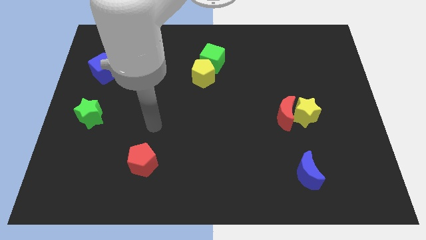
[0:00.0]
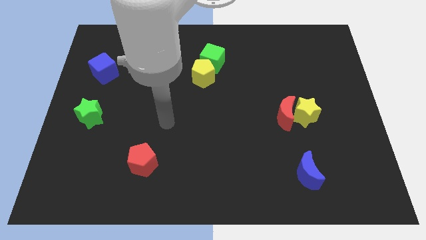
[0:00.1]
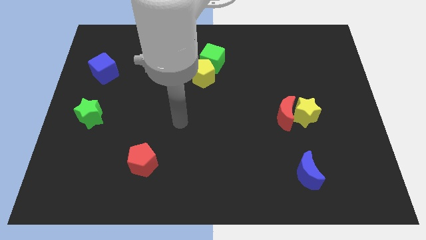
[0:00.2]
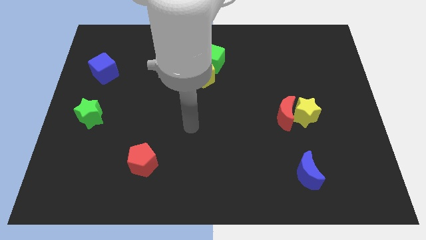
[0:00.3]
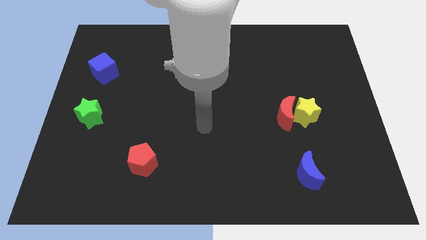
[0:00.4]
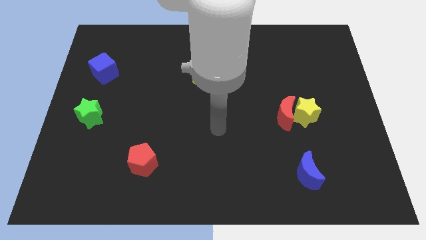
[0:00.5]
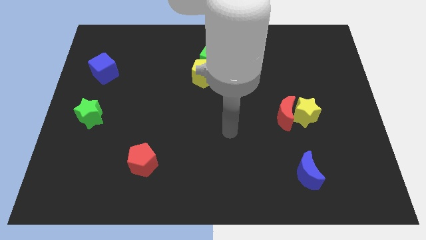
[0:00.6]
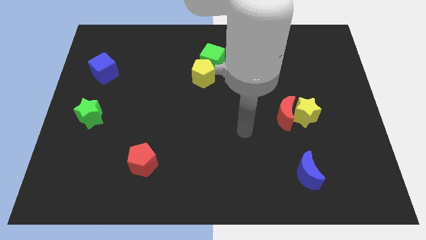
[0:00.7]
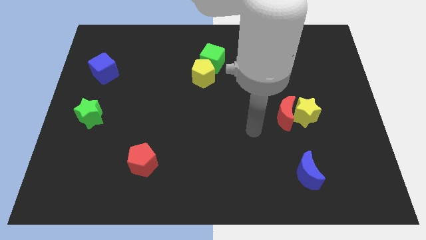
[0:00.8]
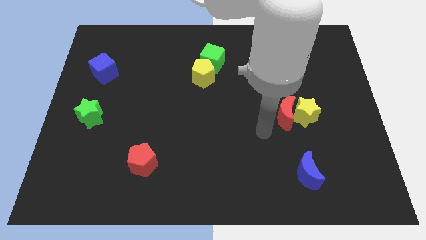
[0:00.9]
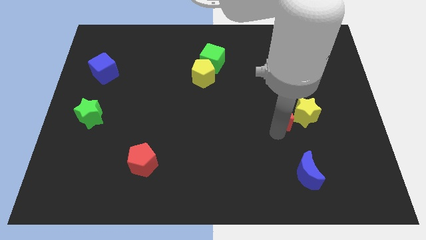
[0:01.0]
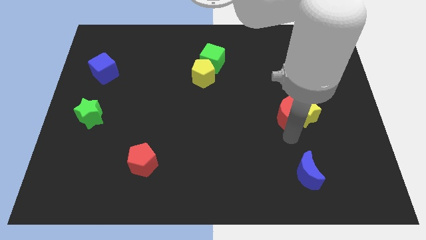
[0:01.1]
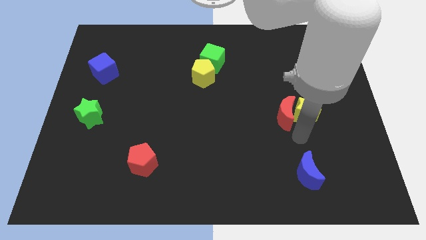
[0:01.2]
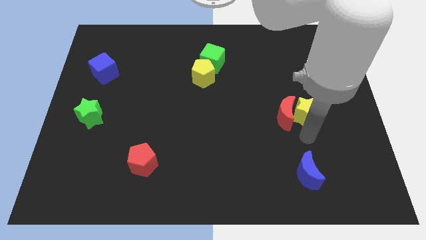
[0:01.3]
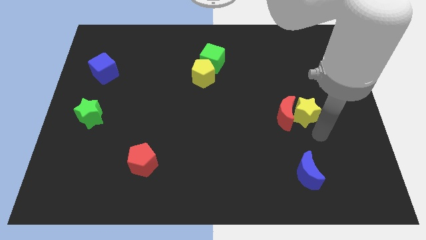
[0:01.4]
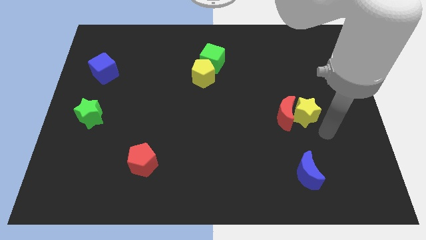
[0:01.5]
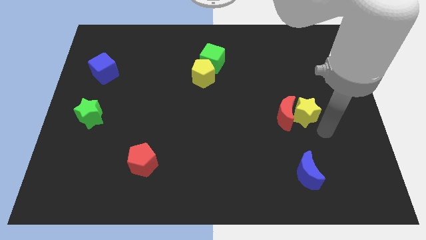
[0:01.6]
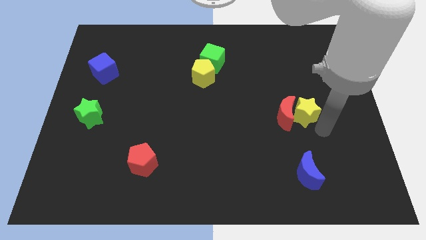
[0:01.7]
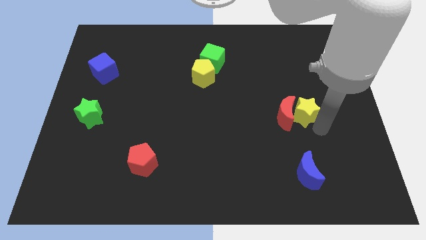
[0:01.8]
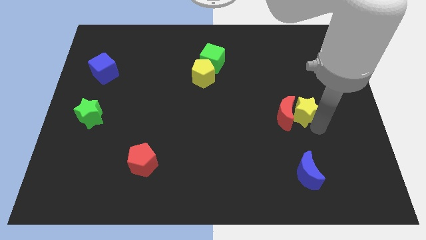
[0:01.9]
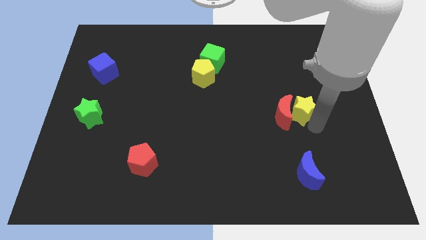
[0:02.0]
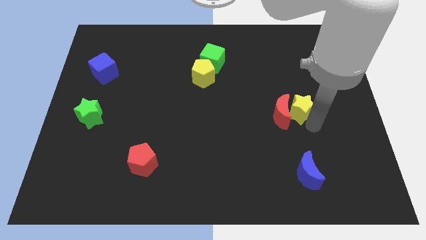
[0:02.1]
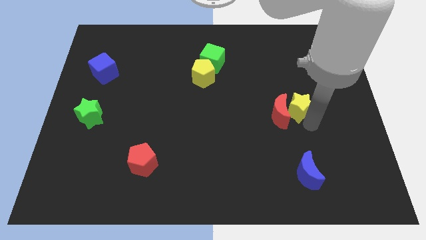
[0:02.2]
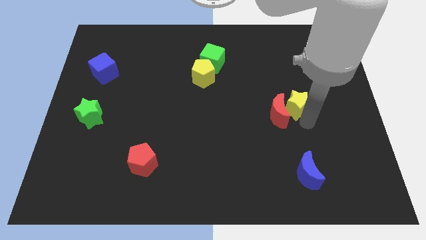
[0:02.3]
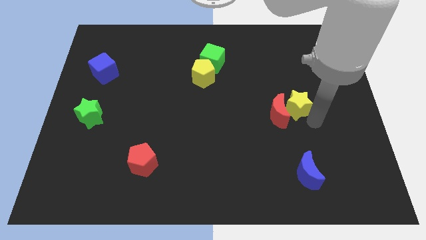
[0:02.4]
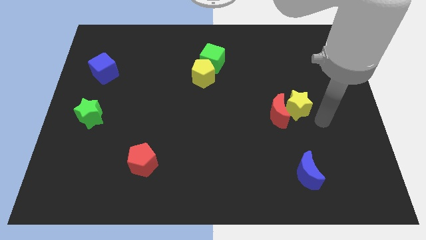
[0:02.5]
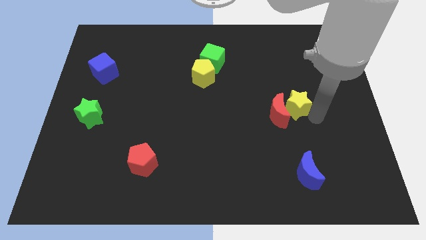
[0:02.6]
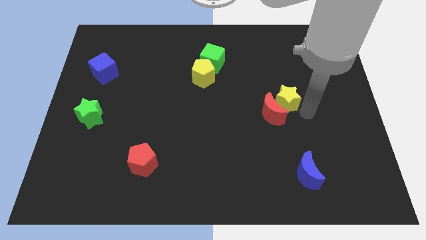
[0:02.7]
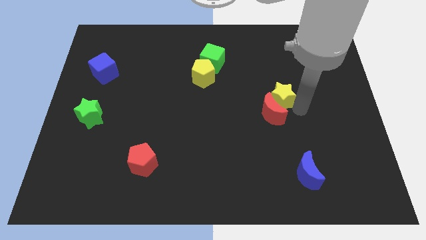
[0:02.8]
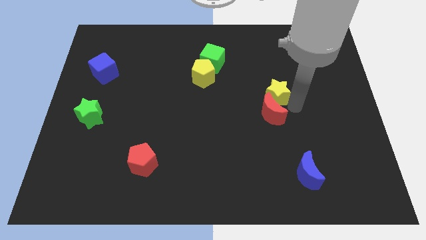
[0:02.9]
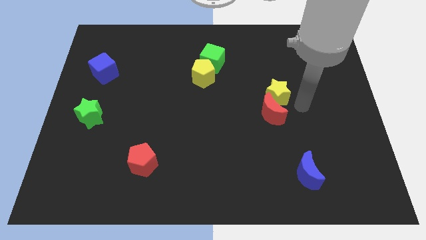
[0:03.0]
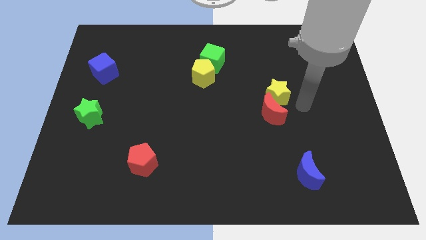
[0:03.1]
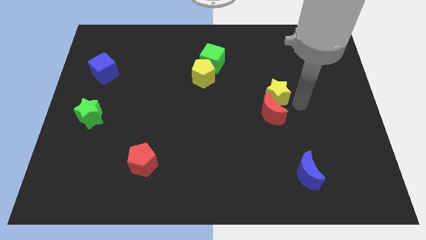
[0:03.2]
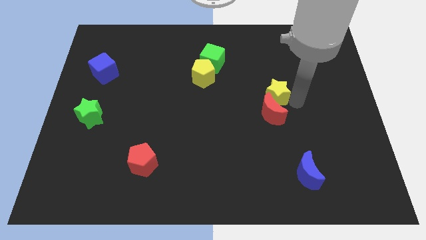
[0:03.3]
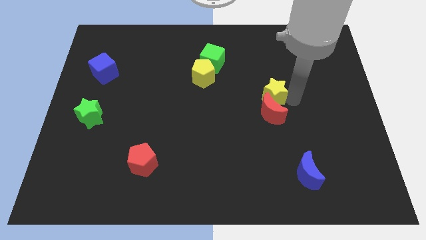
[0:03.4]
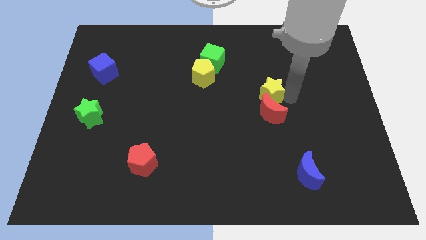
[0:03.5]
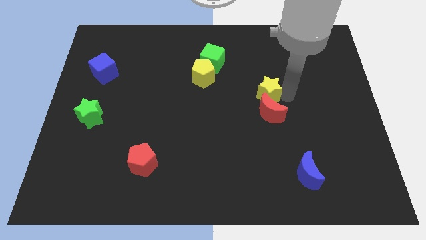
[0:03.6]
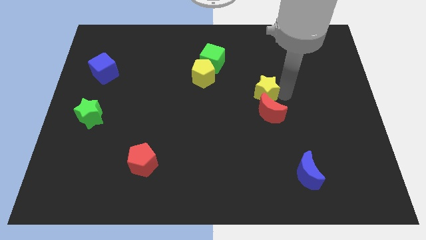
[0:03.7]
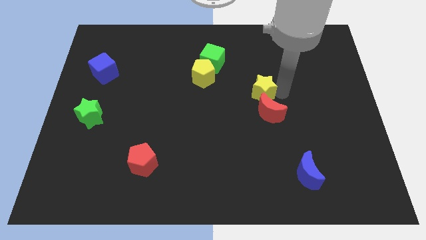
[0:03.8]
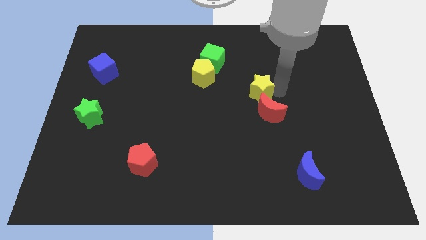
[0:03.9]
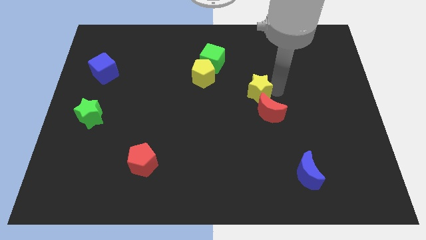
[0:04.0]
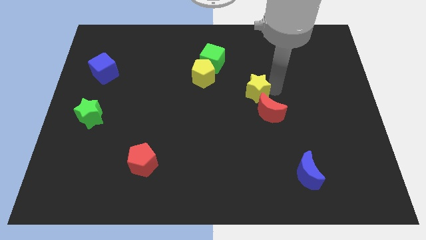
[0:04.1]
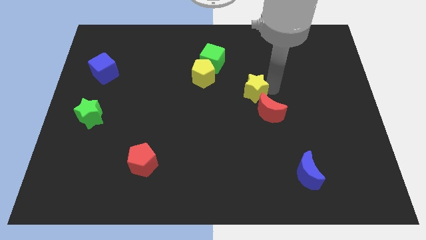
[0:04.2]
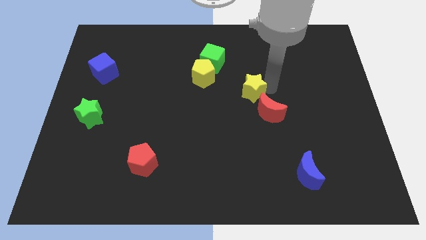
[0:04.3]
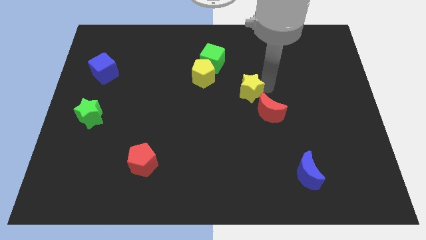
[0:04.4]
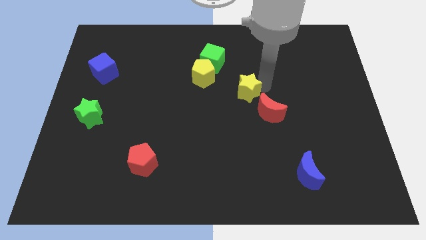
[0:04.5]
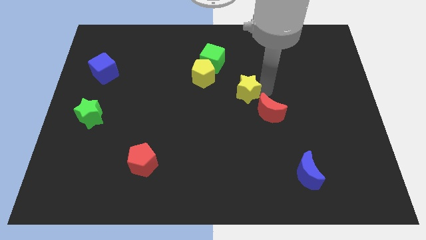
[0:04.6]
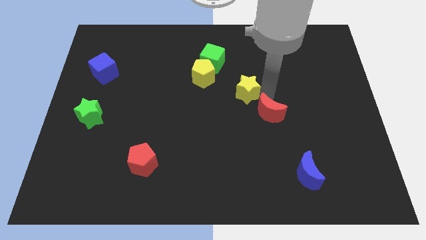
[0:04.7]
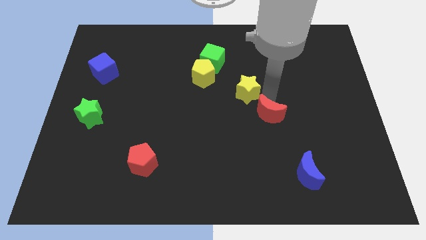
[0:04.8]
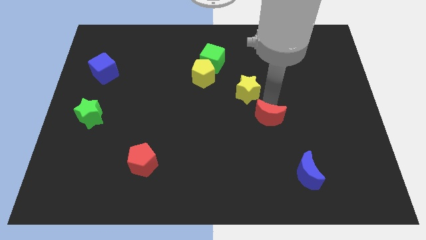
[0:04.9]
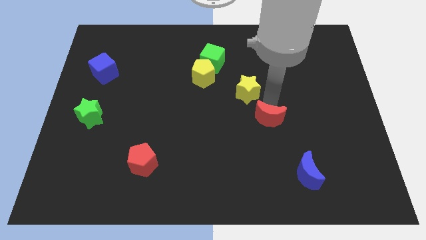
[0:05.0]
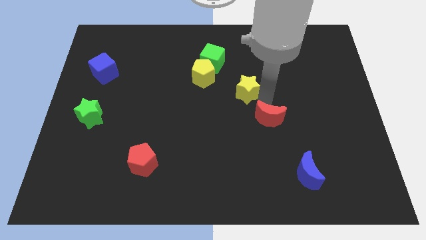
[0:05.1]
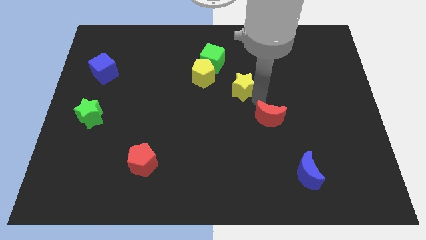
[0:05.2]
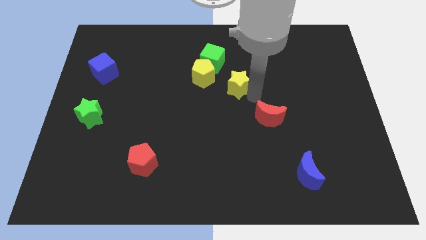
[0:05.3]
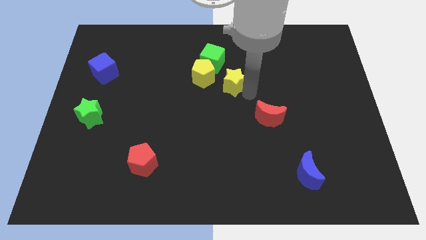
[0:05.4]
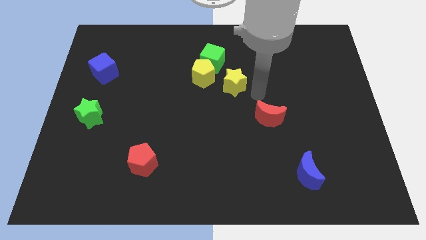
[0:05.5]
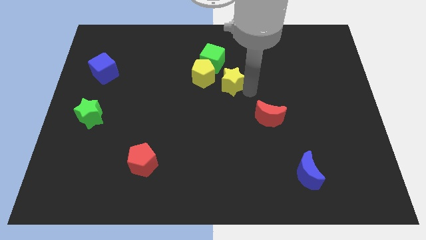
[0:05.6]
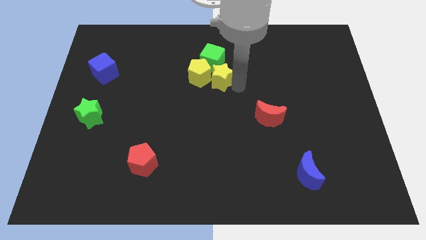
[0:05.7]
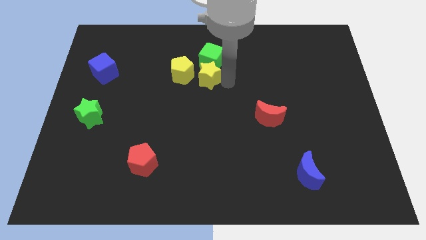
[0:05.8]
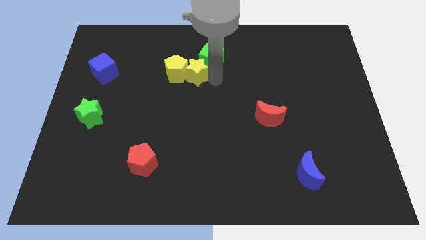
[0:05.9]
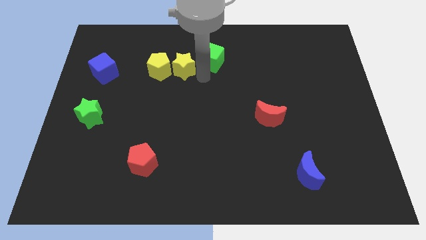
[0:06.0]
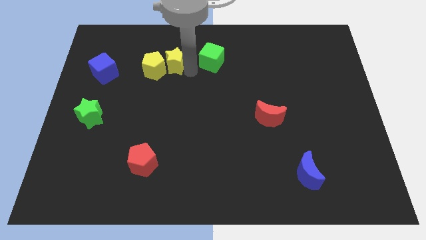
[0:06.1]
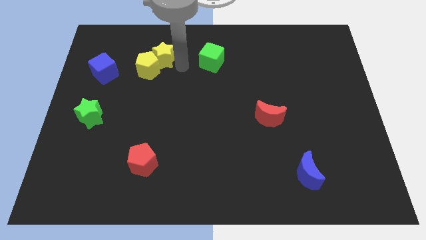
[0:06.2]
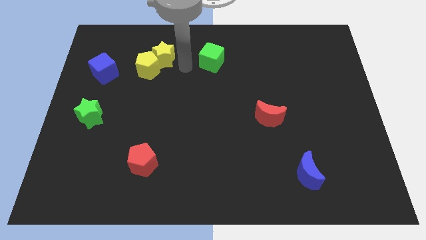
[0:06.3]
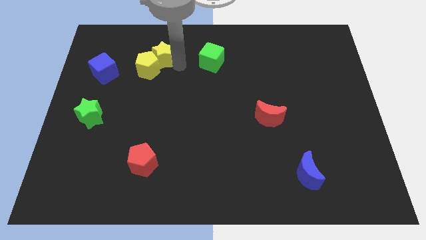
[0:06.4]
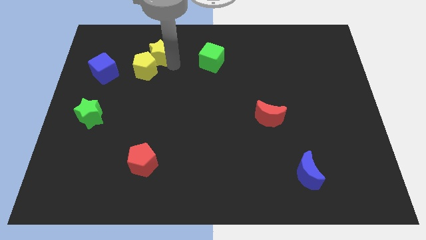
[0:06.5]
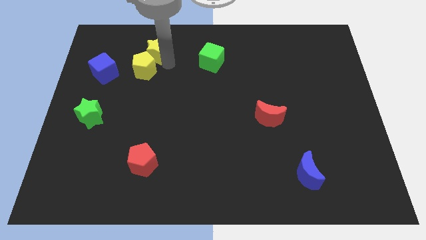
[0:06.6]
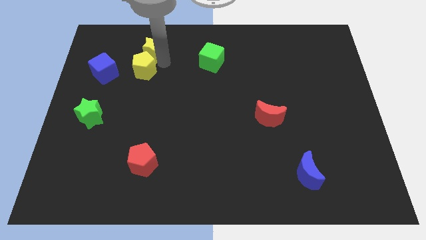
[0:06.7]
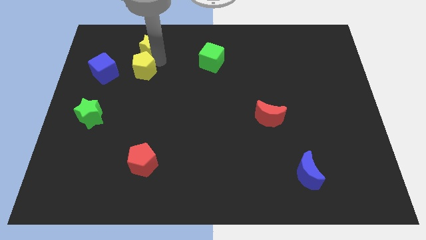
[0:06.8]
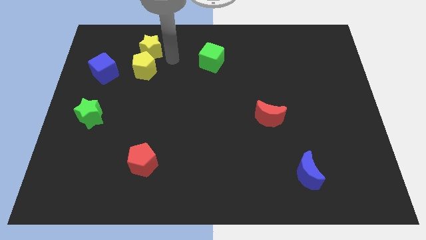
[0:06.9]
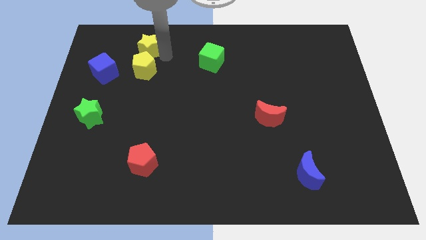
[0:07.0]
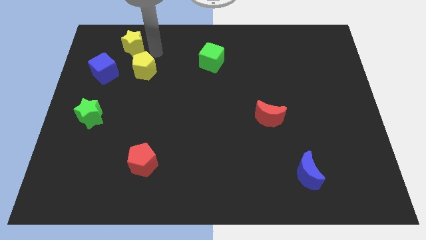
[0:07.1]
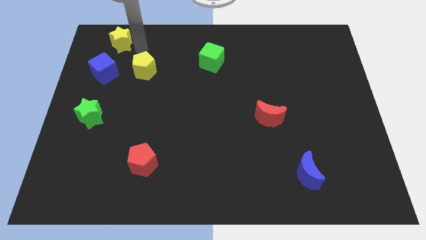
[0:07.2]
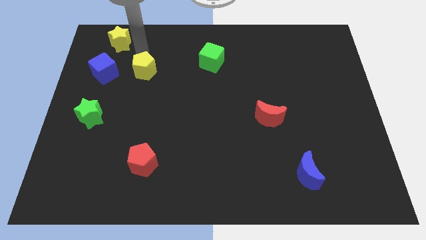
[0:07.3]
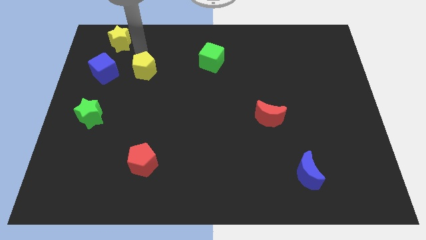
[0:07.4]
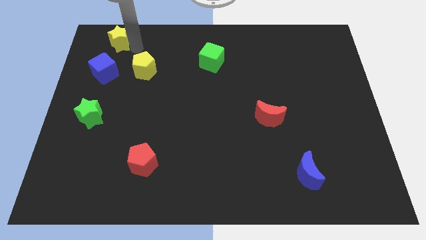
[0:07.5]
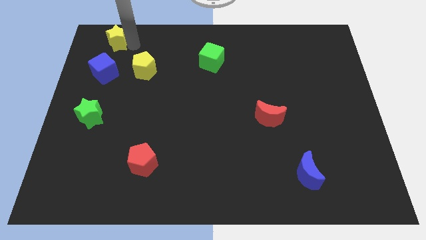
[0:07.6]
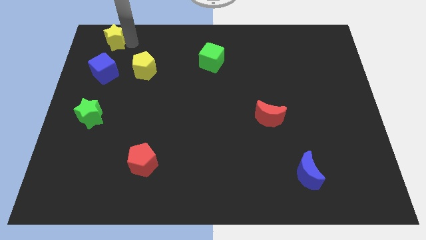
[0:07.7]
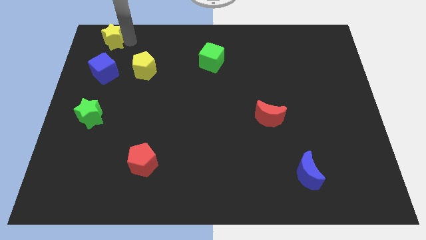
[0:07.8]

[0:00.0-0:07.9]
slide the yellow star to the top left
